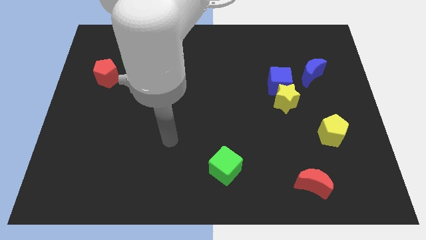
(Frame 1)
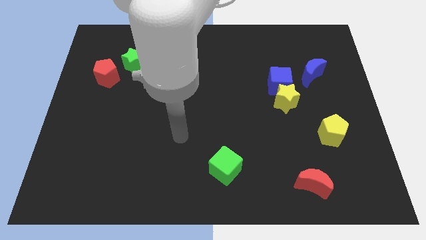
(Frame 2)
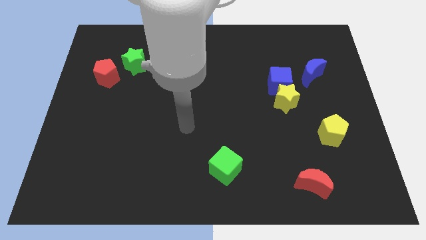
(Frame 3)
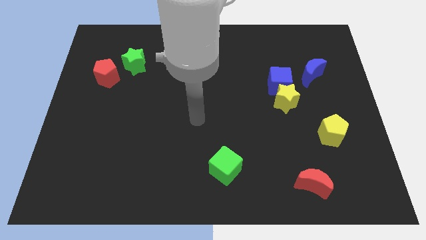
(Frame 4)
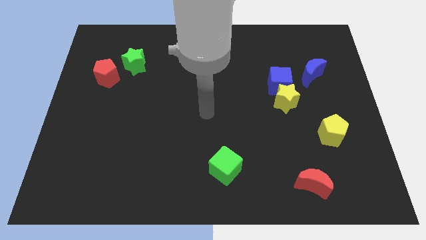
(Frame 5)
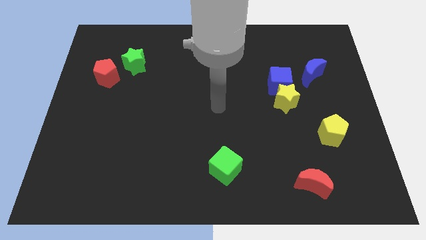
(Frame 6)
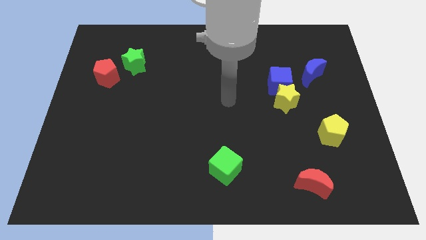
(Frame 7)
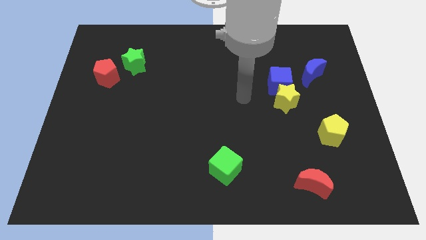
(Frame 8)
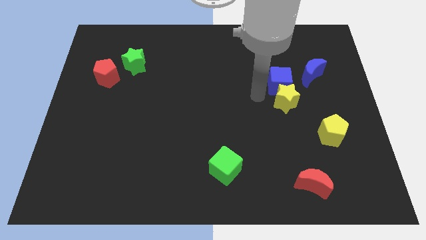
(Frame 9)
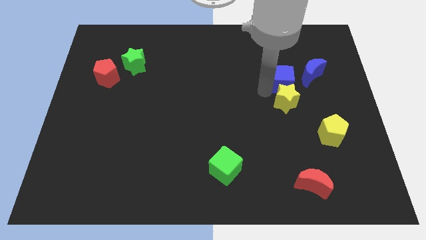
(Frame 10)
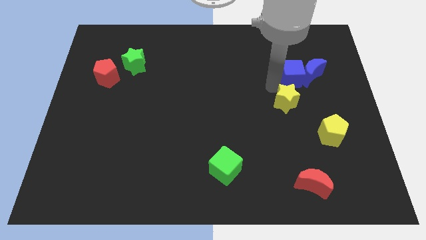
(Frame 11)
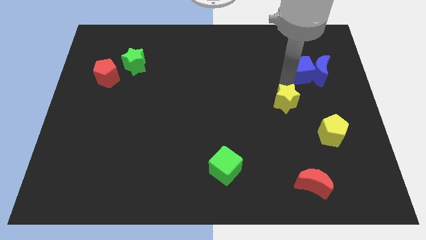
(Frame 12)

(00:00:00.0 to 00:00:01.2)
move the yellow star away from the blue cube

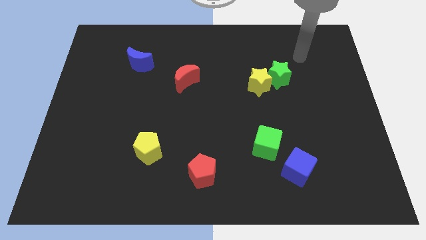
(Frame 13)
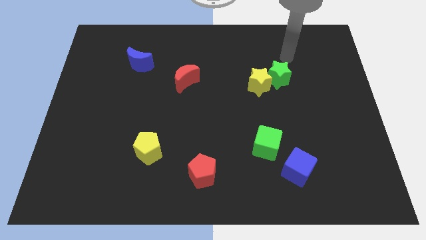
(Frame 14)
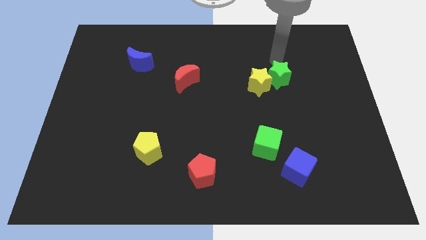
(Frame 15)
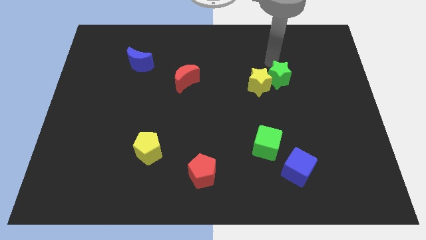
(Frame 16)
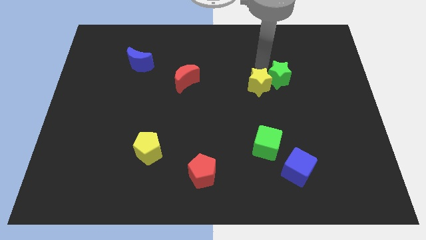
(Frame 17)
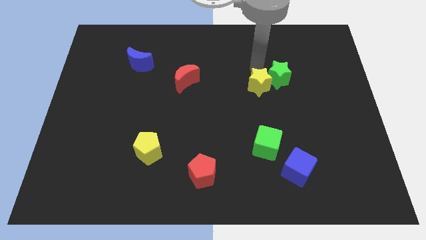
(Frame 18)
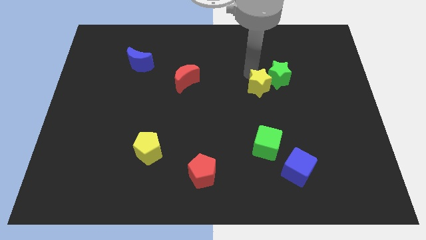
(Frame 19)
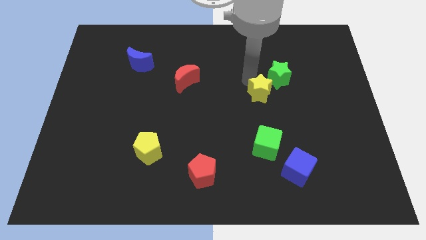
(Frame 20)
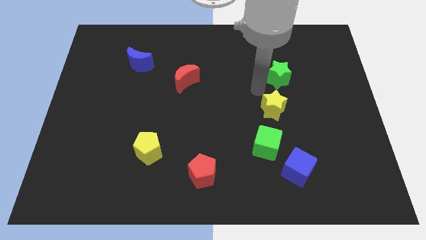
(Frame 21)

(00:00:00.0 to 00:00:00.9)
pull the green star apart from the yellow star

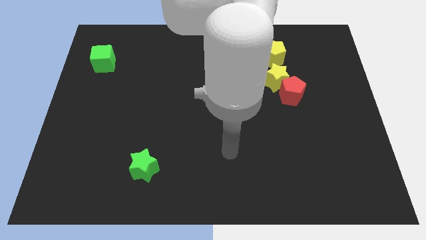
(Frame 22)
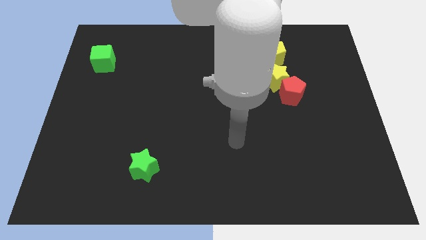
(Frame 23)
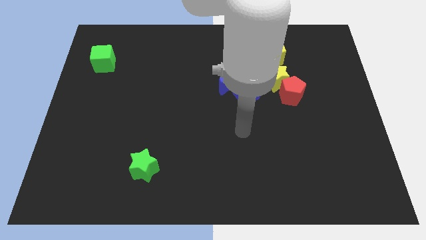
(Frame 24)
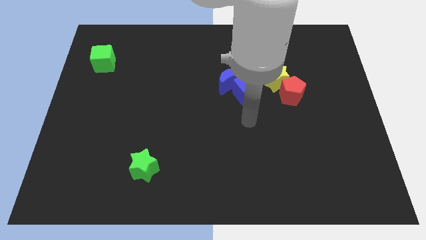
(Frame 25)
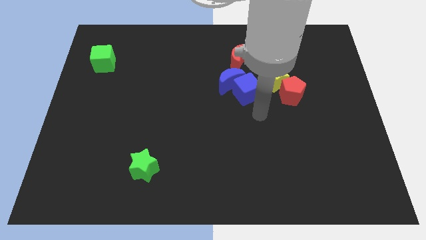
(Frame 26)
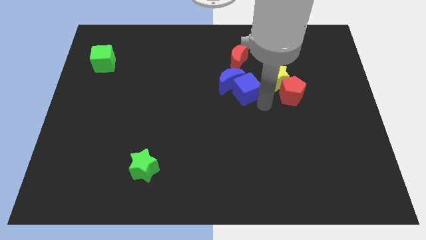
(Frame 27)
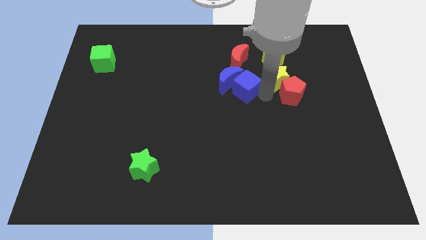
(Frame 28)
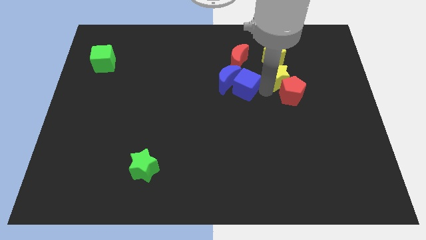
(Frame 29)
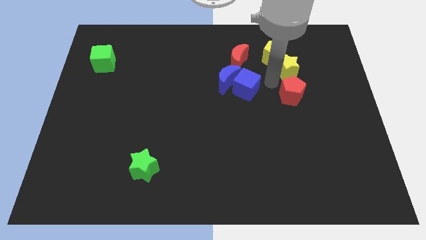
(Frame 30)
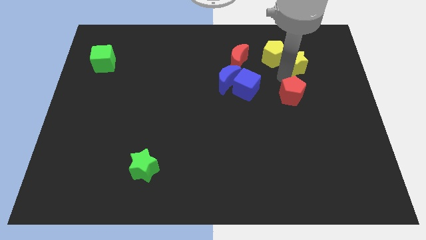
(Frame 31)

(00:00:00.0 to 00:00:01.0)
move the red pentagon away from the yellow star

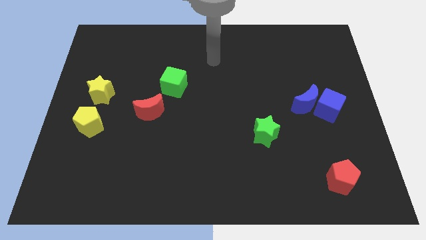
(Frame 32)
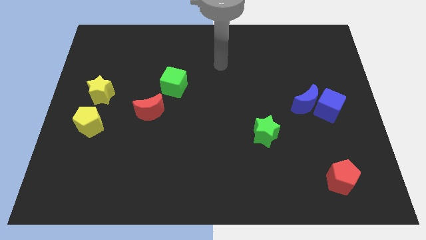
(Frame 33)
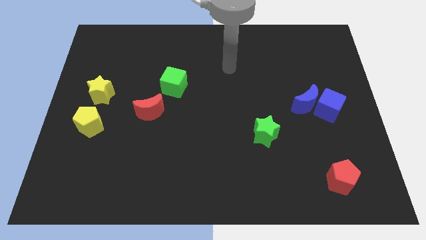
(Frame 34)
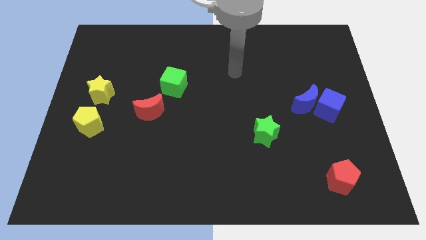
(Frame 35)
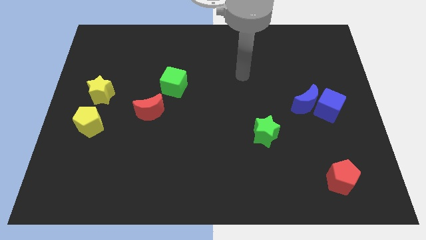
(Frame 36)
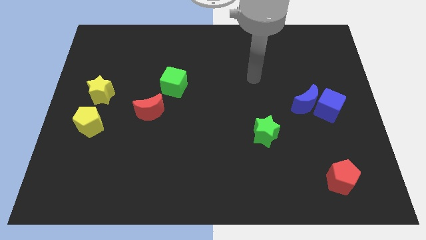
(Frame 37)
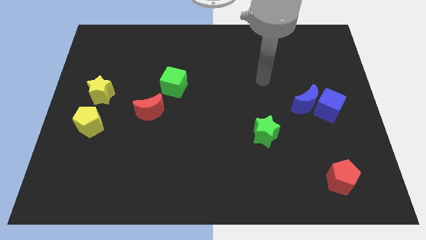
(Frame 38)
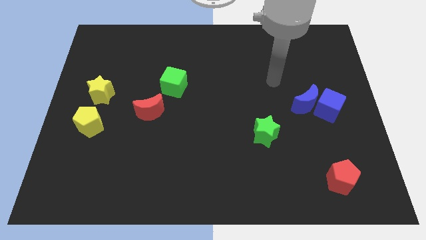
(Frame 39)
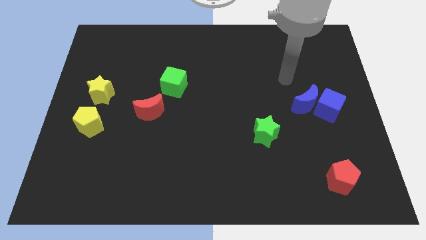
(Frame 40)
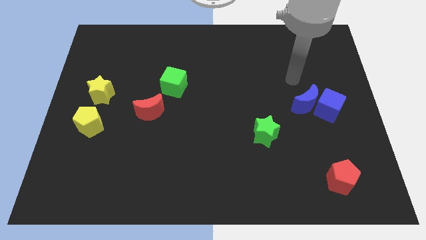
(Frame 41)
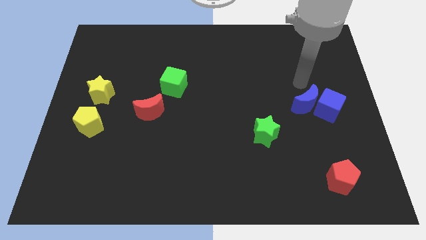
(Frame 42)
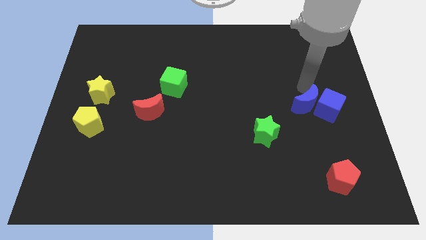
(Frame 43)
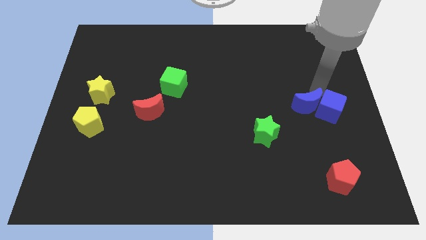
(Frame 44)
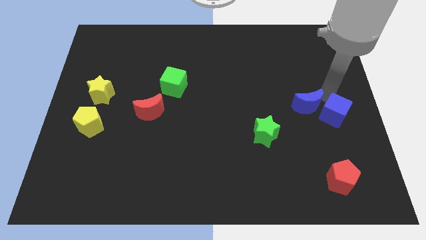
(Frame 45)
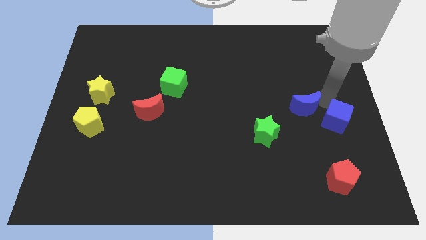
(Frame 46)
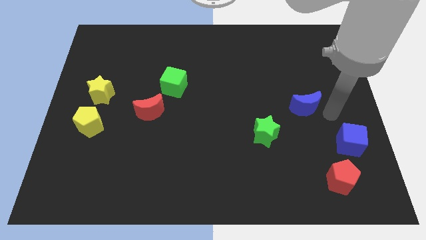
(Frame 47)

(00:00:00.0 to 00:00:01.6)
move the blue moon away from the blue cube

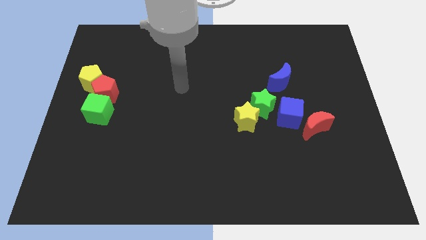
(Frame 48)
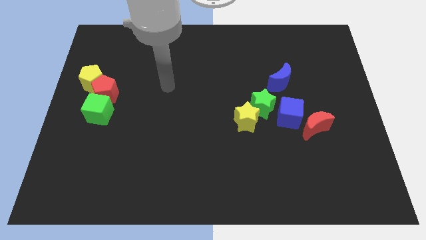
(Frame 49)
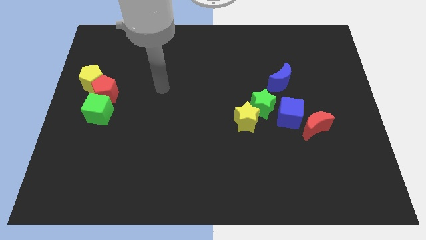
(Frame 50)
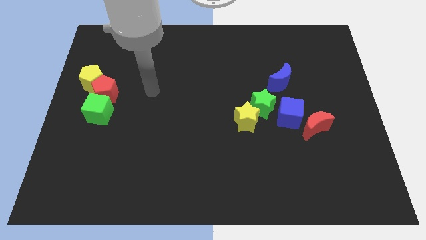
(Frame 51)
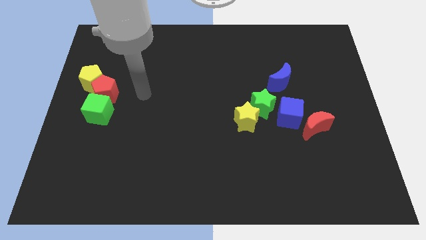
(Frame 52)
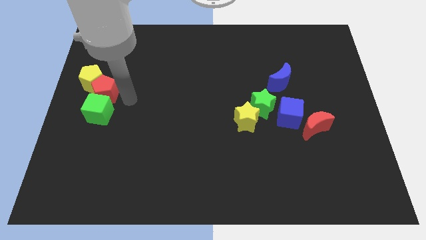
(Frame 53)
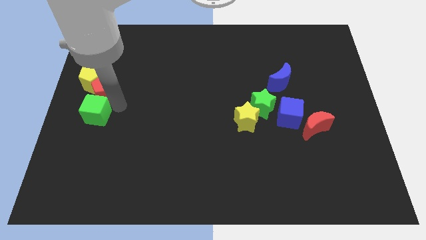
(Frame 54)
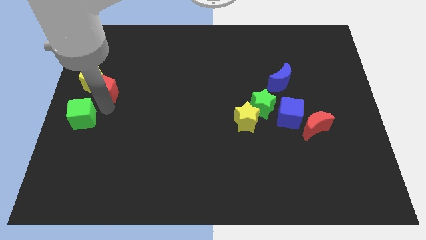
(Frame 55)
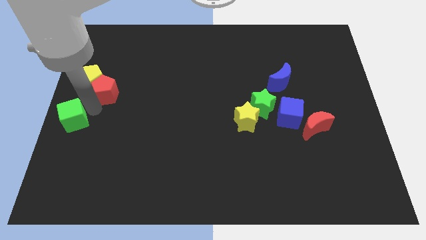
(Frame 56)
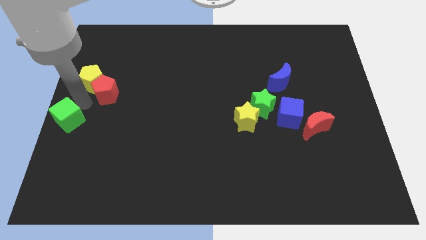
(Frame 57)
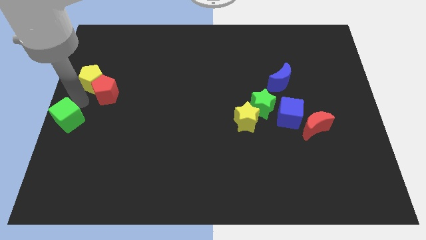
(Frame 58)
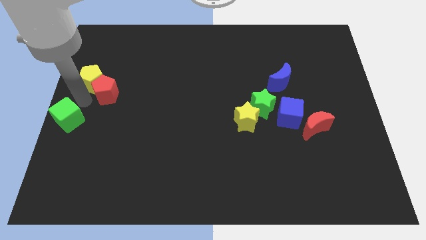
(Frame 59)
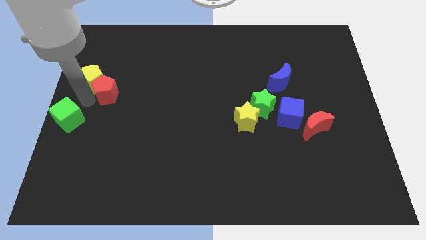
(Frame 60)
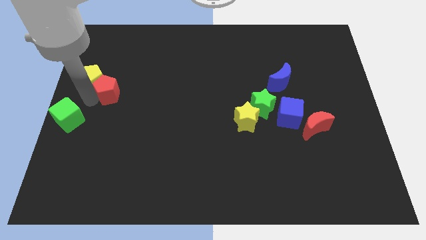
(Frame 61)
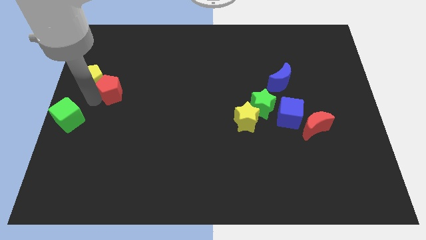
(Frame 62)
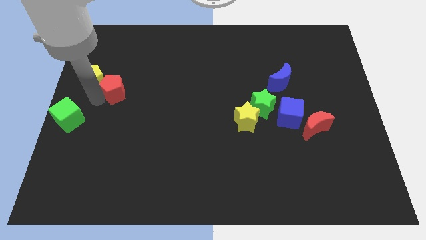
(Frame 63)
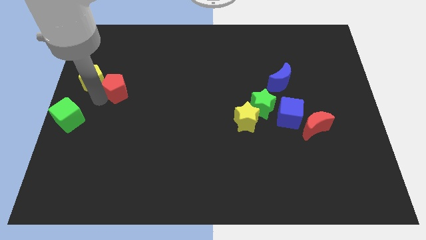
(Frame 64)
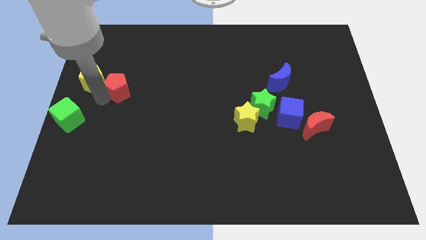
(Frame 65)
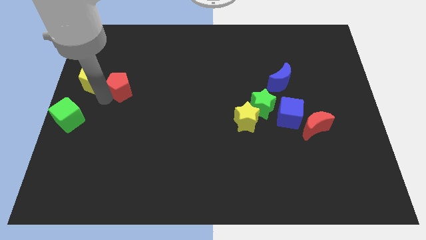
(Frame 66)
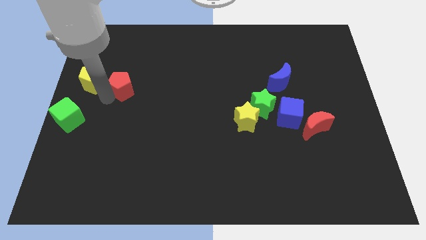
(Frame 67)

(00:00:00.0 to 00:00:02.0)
pull the red pentagon apart from the yellow pentagon and green cube

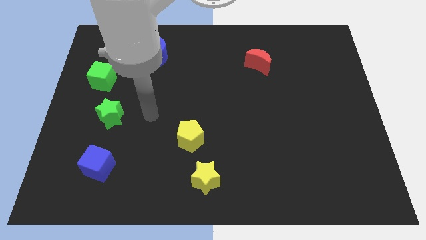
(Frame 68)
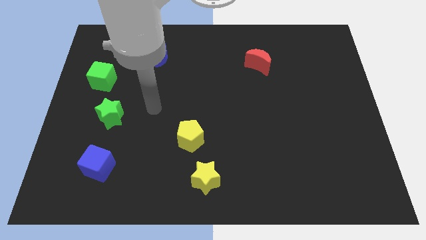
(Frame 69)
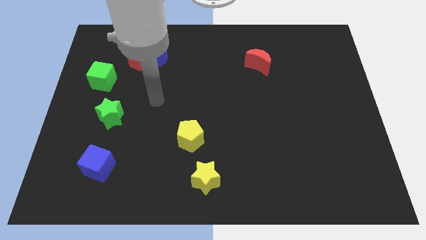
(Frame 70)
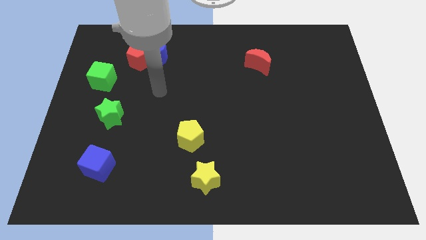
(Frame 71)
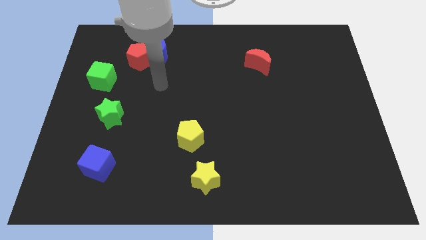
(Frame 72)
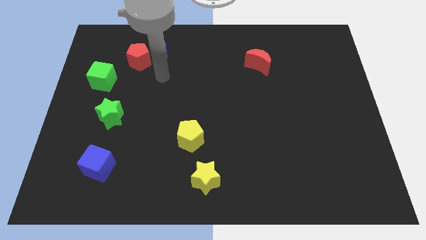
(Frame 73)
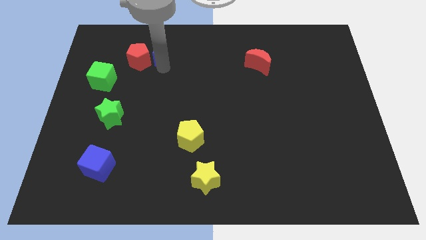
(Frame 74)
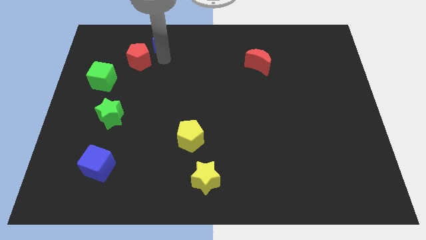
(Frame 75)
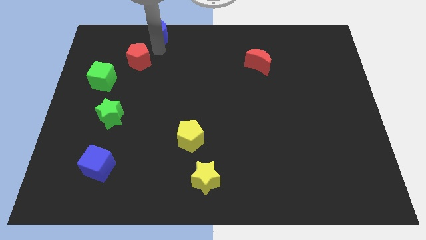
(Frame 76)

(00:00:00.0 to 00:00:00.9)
move the red pentagon away from the blue moon

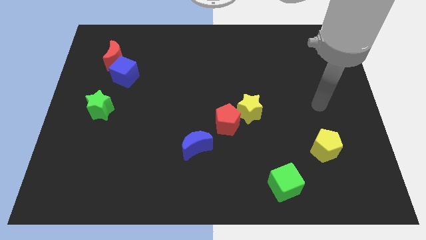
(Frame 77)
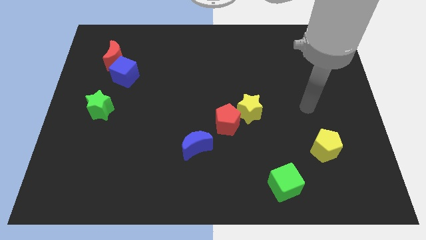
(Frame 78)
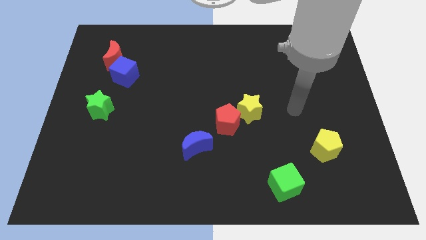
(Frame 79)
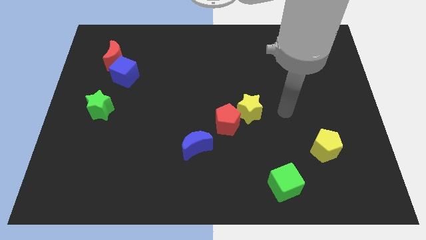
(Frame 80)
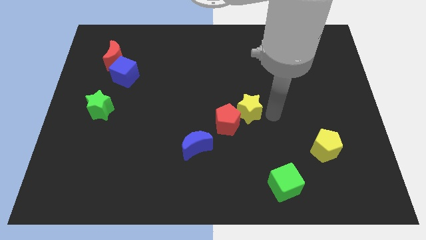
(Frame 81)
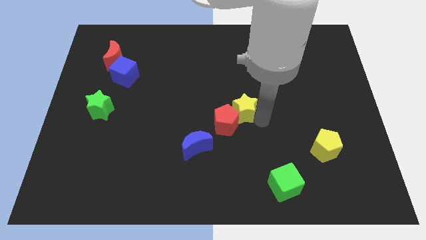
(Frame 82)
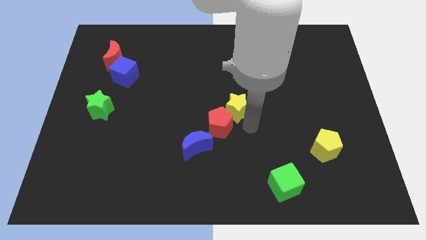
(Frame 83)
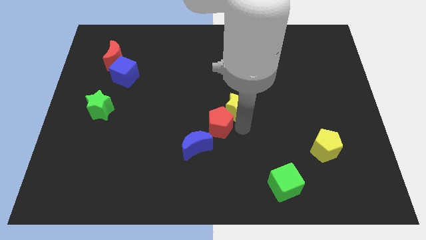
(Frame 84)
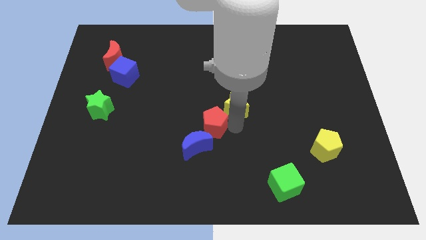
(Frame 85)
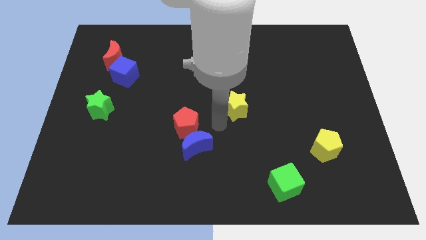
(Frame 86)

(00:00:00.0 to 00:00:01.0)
move the yellow star away from the red pentagon

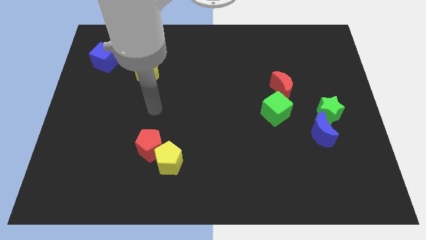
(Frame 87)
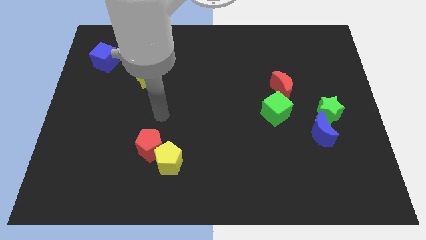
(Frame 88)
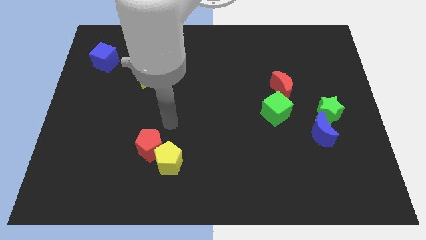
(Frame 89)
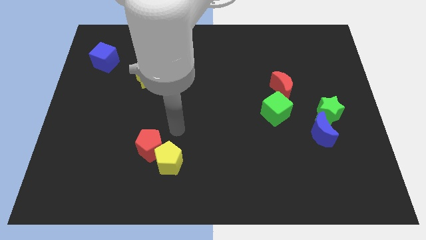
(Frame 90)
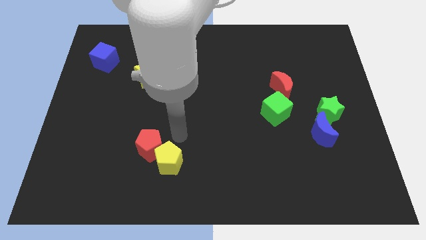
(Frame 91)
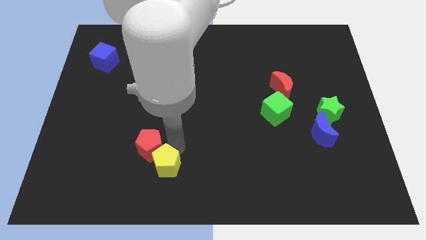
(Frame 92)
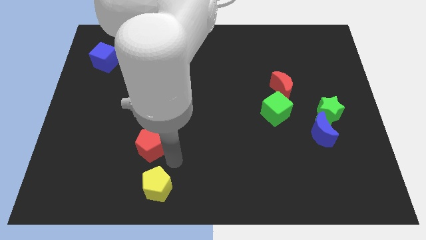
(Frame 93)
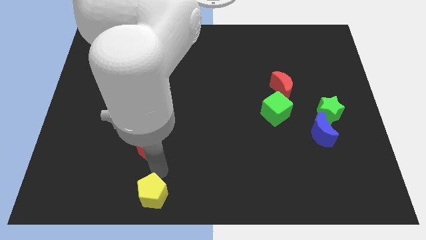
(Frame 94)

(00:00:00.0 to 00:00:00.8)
move the red pentagon away from the yellow pentagon
